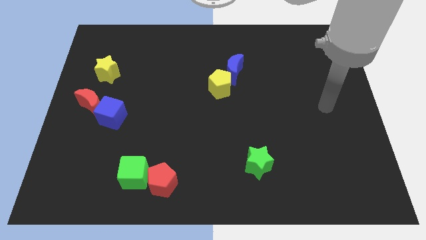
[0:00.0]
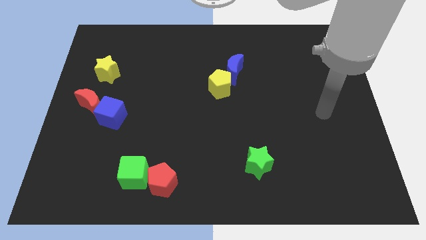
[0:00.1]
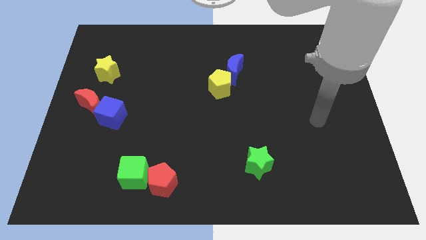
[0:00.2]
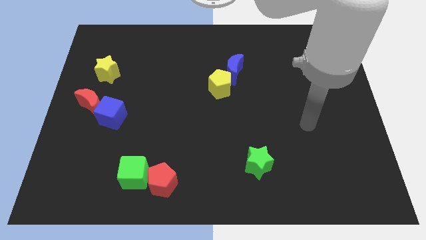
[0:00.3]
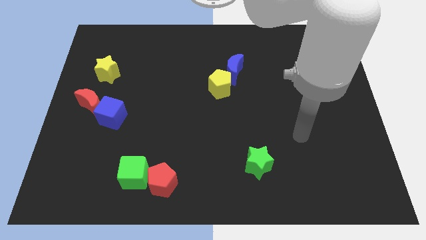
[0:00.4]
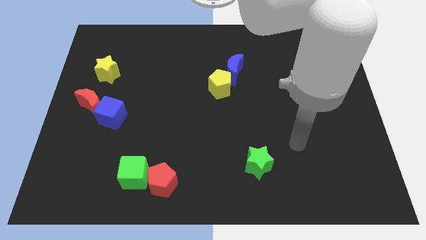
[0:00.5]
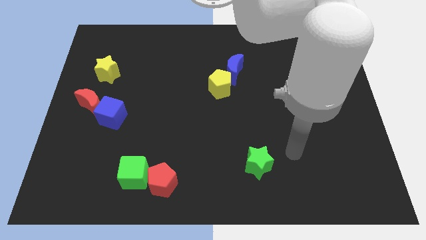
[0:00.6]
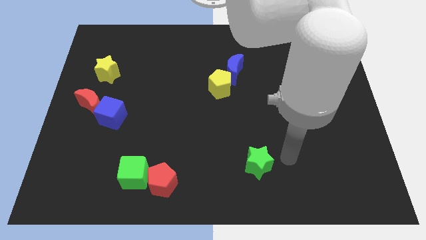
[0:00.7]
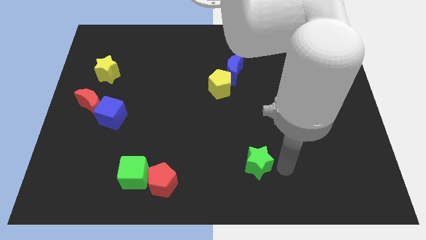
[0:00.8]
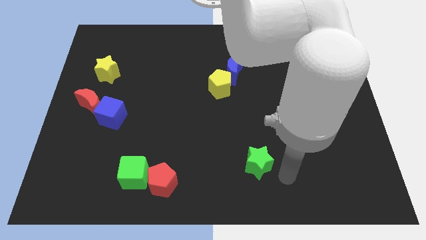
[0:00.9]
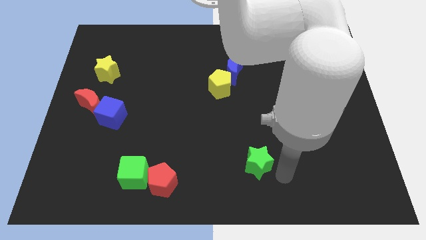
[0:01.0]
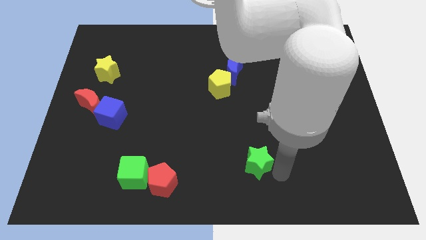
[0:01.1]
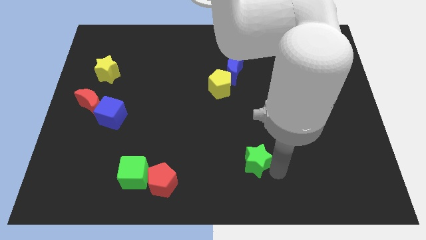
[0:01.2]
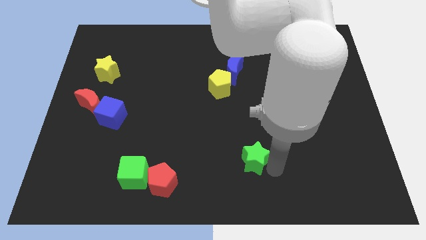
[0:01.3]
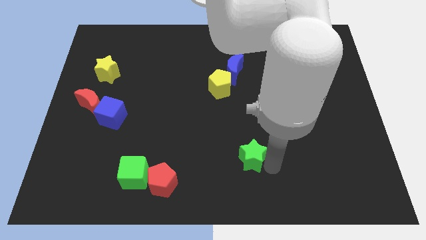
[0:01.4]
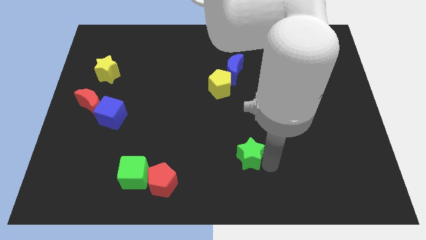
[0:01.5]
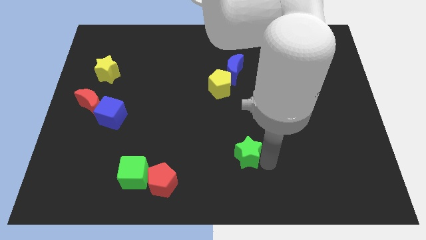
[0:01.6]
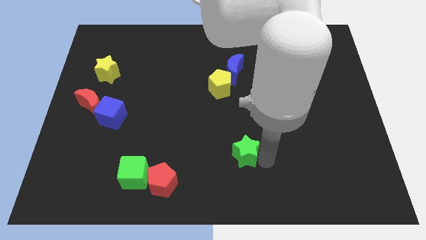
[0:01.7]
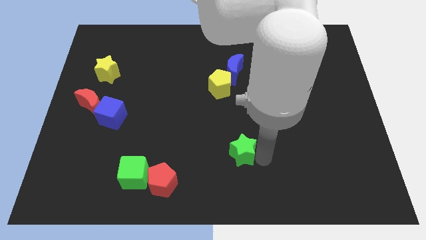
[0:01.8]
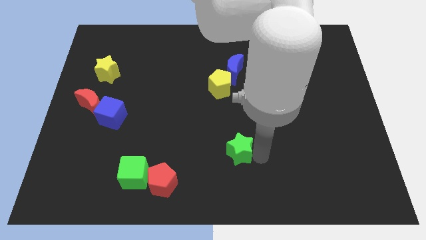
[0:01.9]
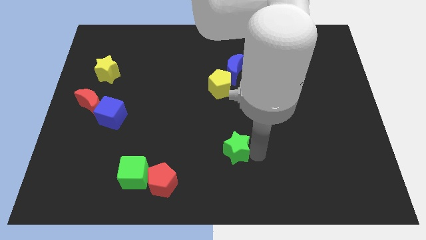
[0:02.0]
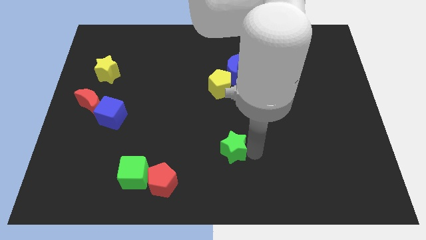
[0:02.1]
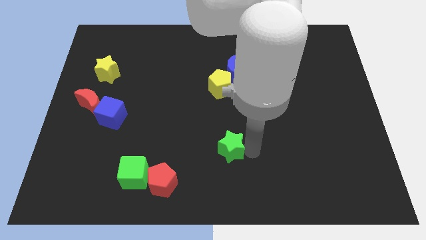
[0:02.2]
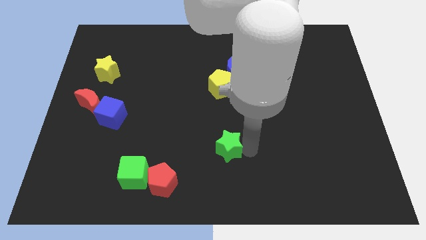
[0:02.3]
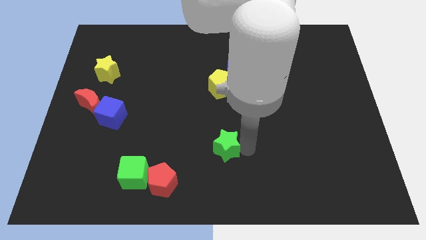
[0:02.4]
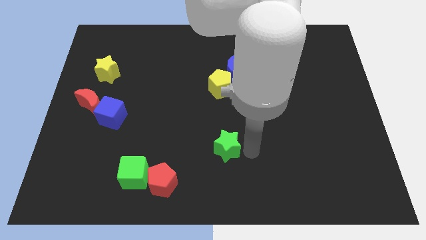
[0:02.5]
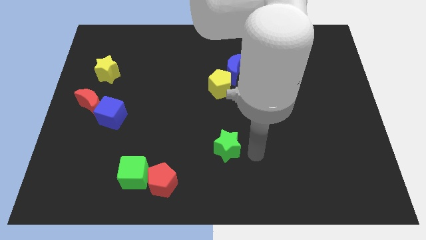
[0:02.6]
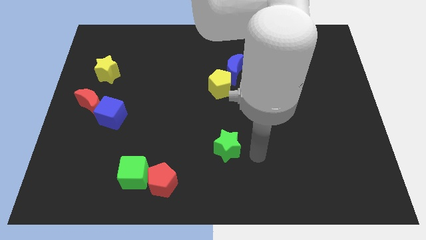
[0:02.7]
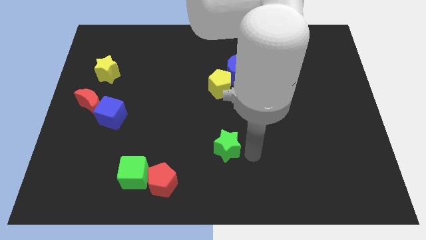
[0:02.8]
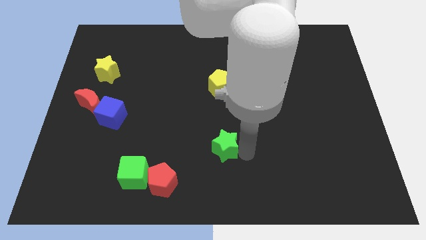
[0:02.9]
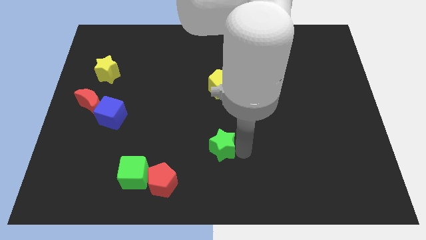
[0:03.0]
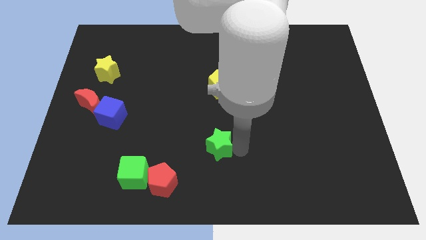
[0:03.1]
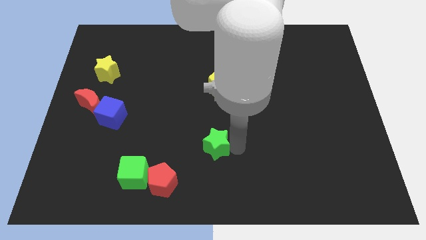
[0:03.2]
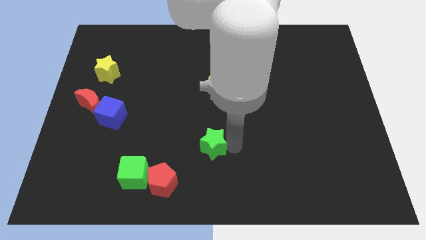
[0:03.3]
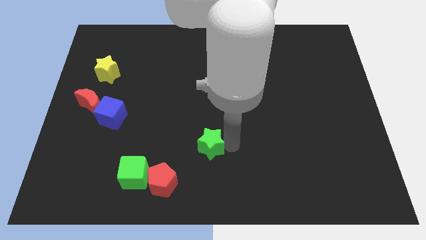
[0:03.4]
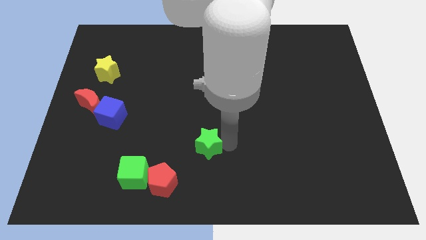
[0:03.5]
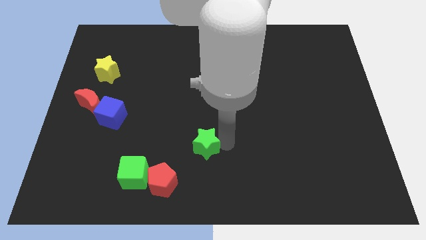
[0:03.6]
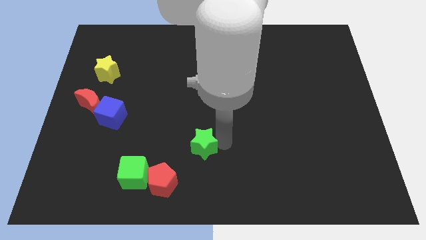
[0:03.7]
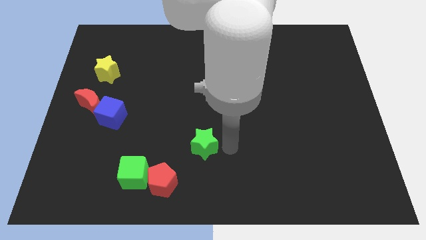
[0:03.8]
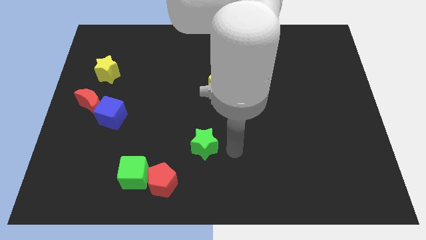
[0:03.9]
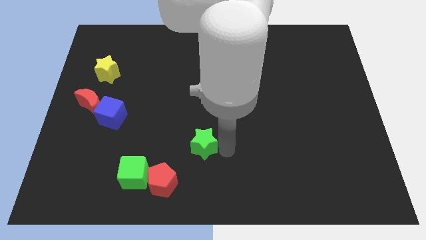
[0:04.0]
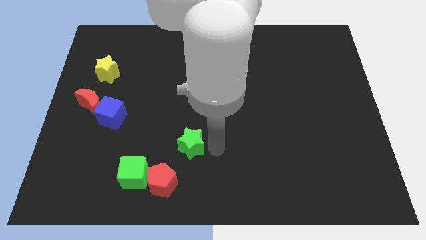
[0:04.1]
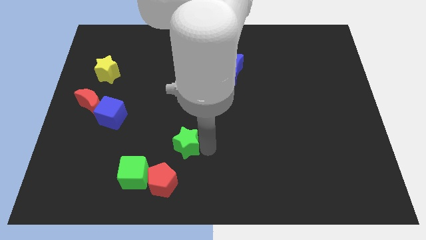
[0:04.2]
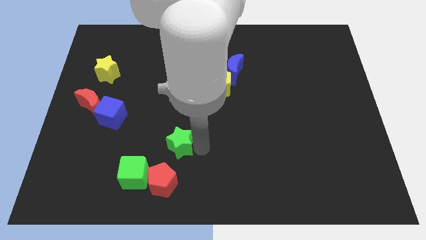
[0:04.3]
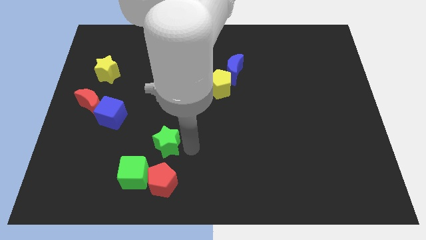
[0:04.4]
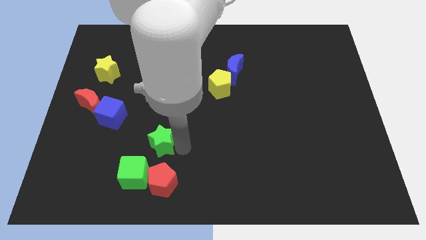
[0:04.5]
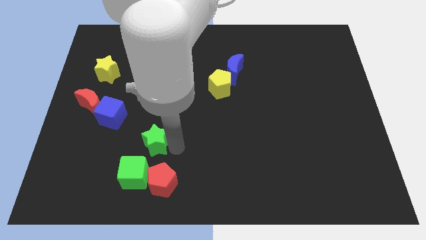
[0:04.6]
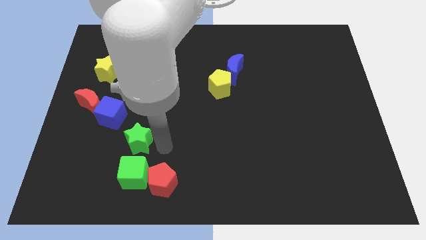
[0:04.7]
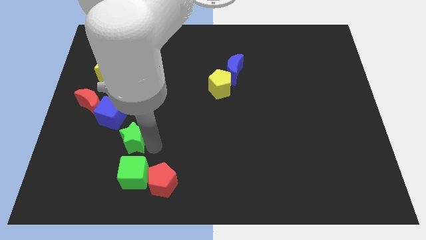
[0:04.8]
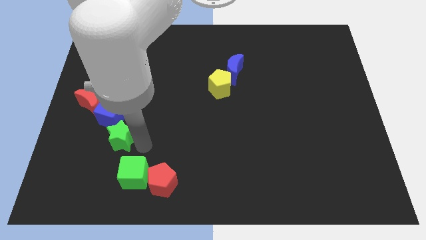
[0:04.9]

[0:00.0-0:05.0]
put the green star diagonally down and to the right of the red moon
